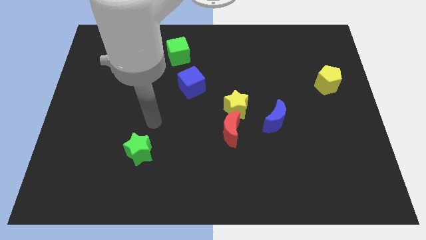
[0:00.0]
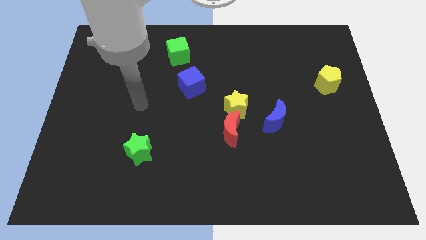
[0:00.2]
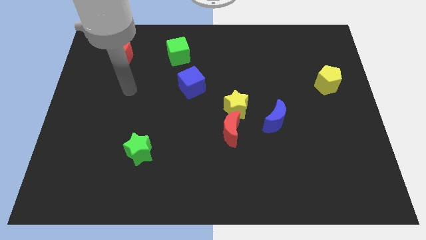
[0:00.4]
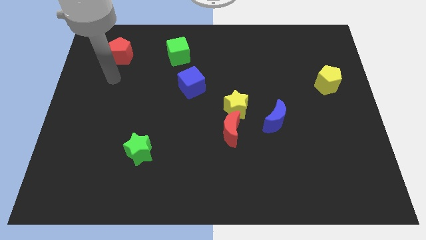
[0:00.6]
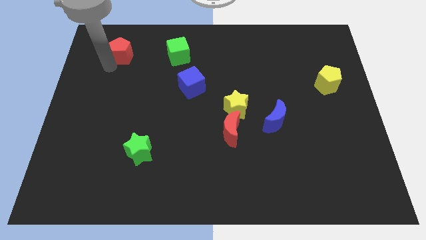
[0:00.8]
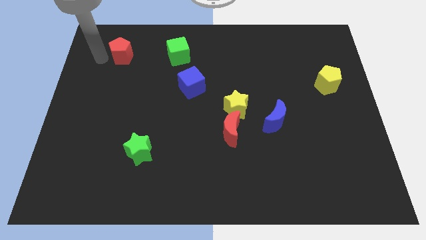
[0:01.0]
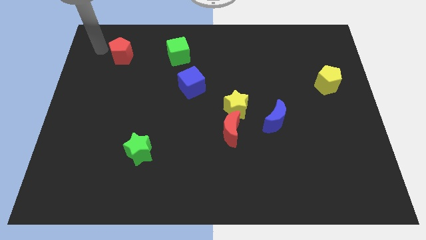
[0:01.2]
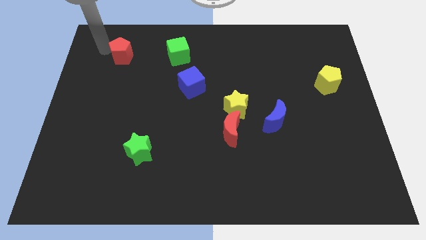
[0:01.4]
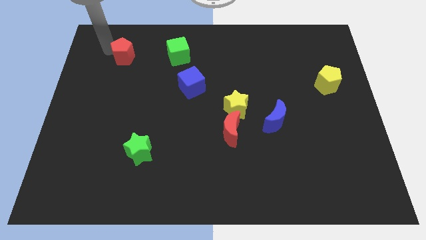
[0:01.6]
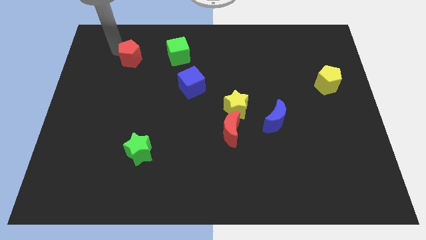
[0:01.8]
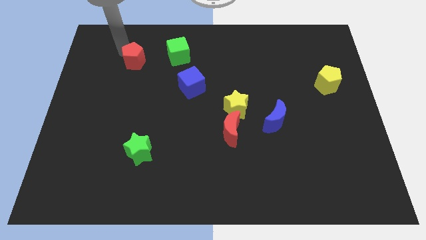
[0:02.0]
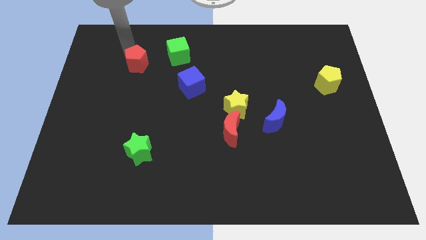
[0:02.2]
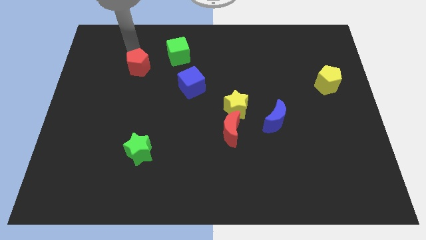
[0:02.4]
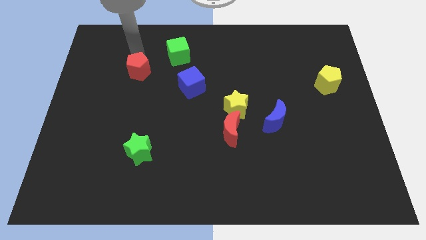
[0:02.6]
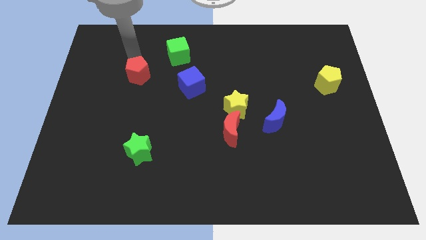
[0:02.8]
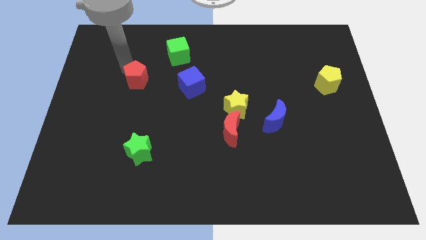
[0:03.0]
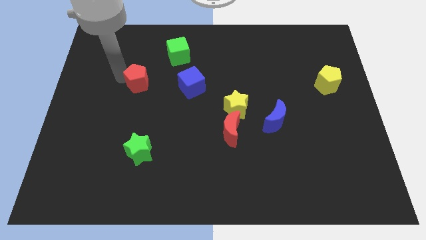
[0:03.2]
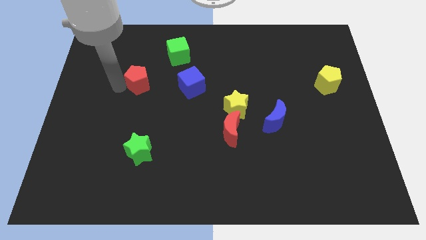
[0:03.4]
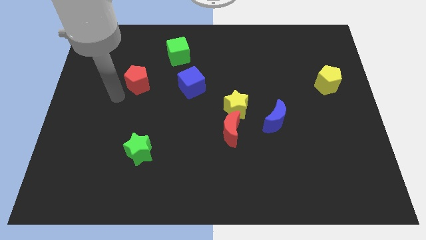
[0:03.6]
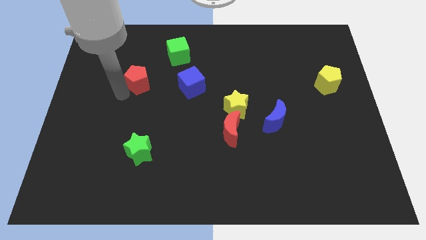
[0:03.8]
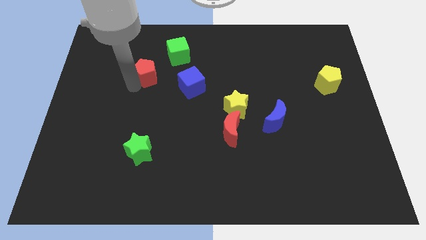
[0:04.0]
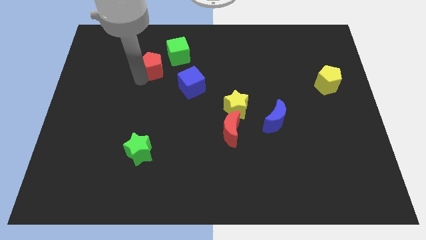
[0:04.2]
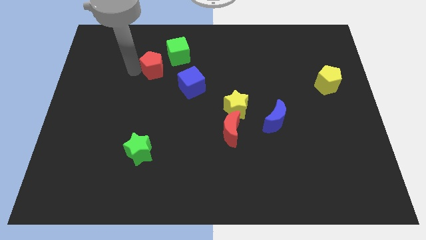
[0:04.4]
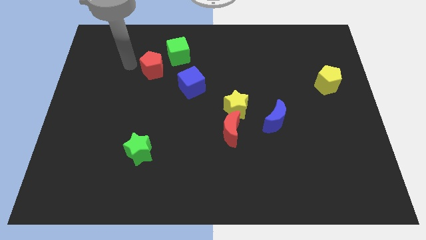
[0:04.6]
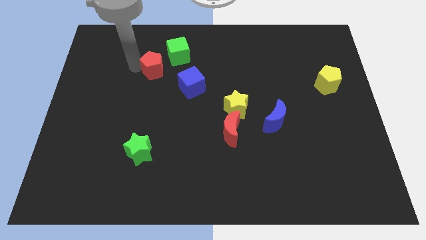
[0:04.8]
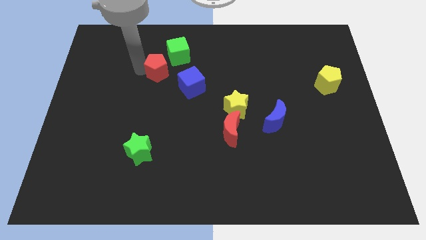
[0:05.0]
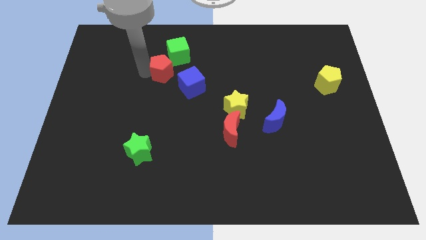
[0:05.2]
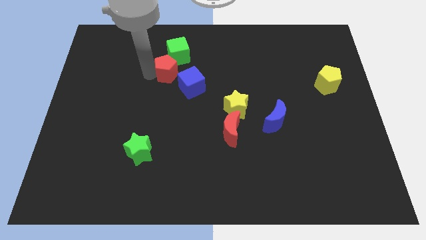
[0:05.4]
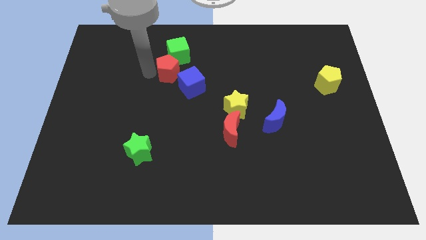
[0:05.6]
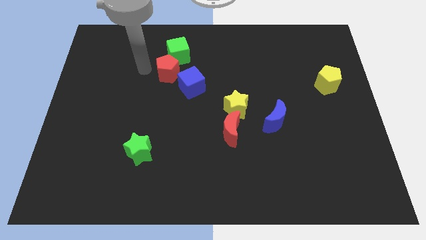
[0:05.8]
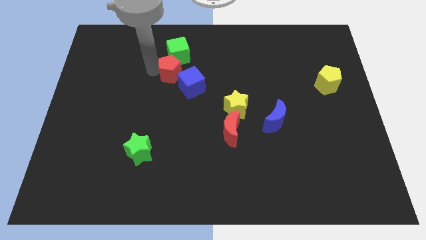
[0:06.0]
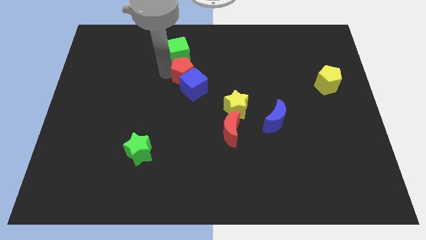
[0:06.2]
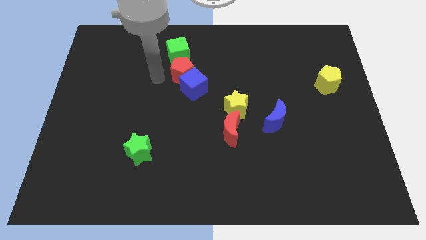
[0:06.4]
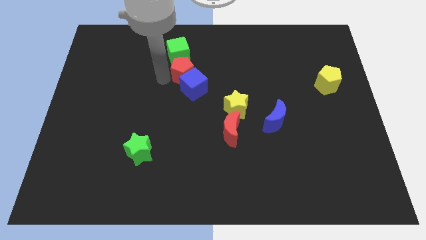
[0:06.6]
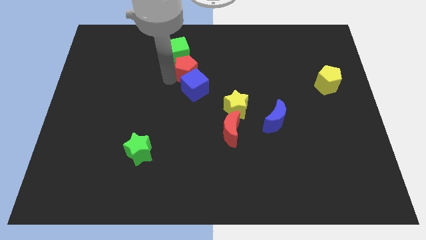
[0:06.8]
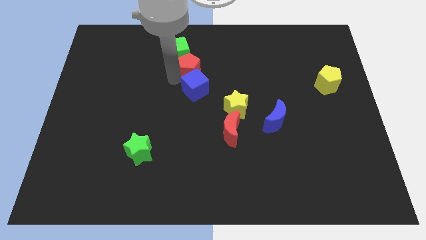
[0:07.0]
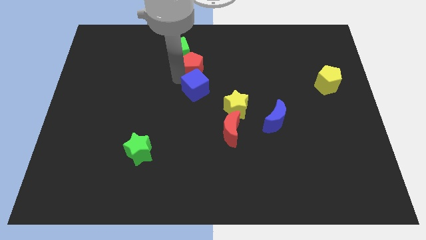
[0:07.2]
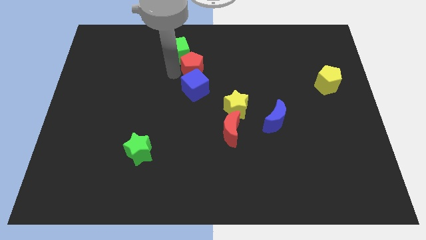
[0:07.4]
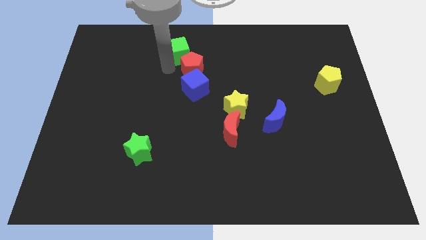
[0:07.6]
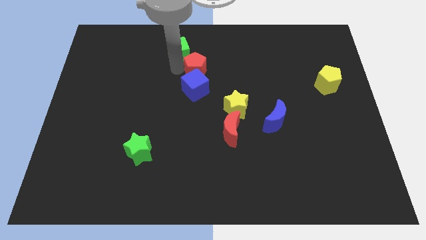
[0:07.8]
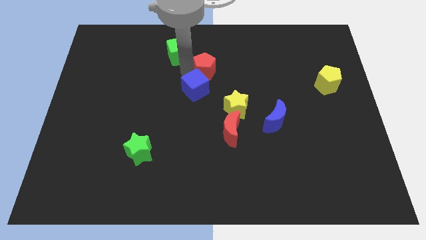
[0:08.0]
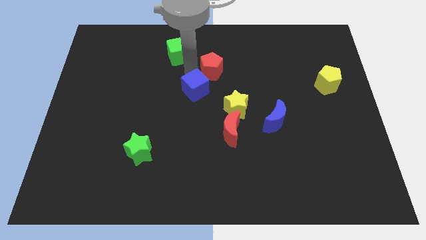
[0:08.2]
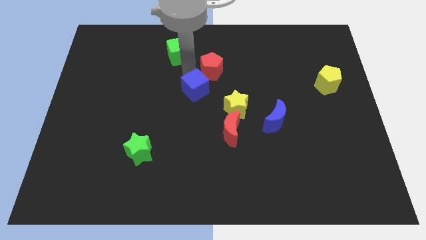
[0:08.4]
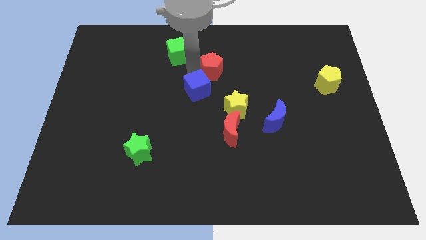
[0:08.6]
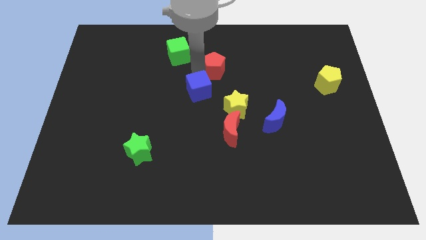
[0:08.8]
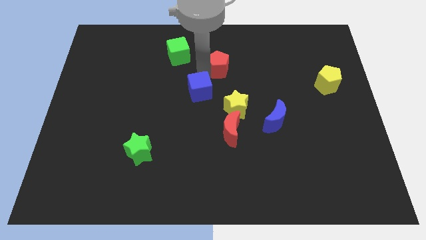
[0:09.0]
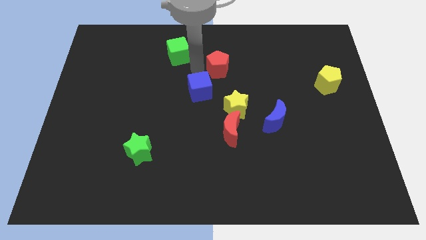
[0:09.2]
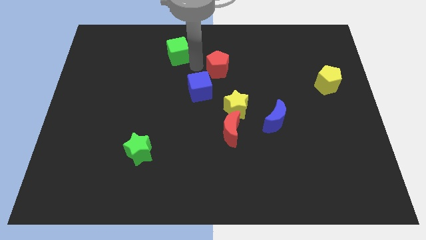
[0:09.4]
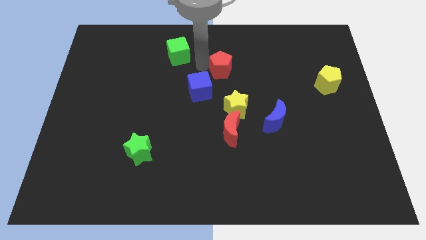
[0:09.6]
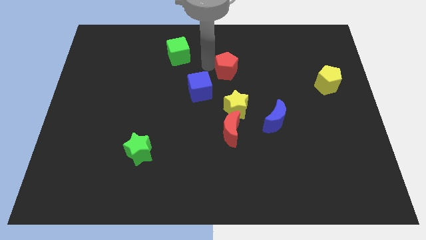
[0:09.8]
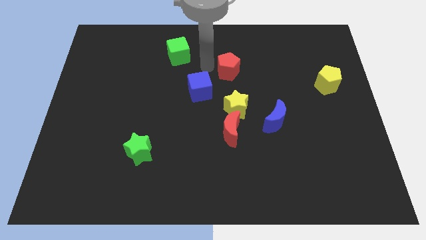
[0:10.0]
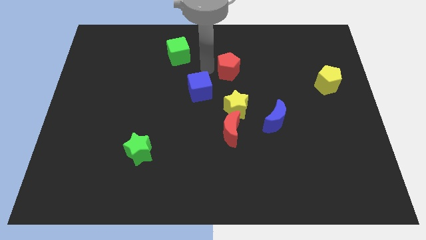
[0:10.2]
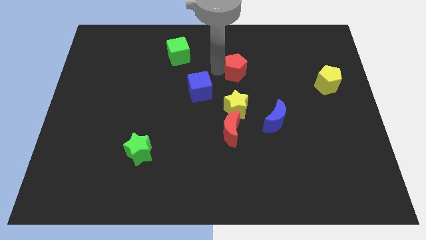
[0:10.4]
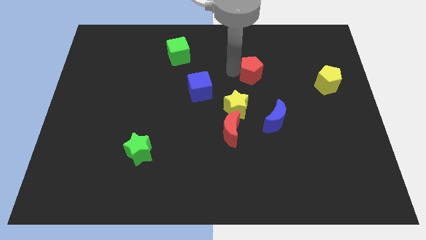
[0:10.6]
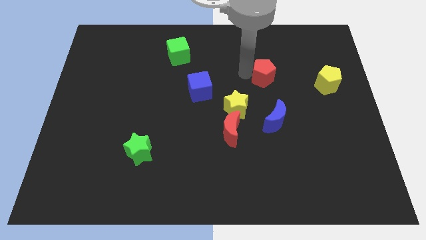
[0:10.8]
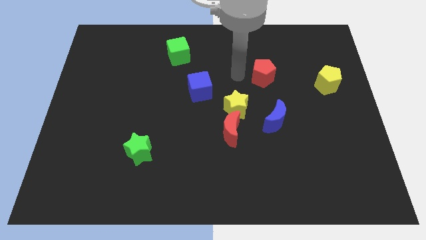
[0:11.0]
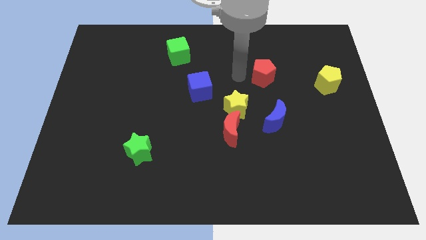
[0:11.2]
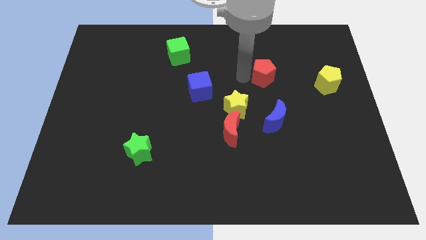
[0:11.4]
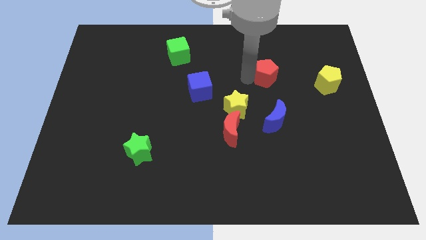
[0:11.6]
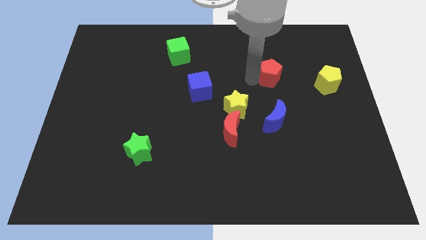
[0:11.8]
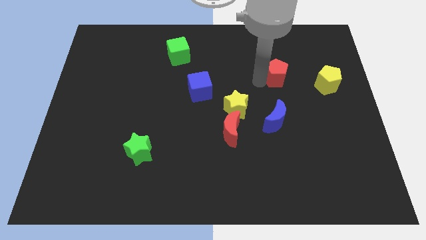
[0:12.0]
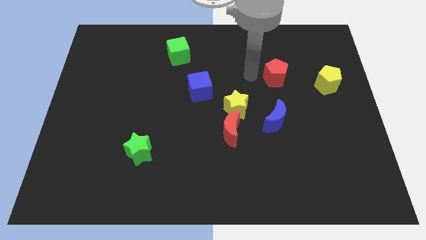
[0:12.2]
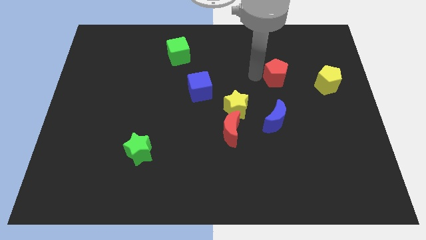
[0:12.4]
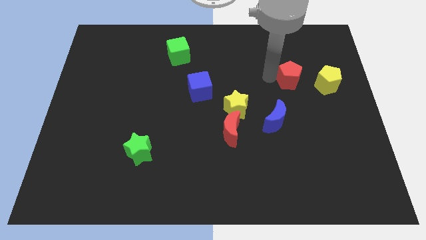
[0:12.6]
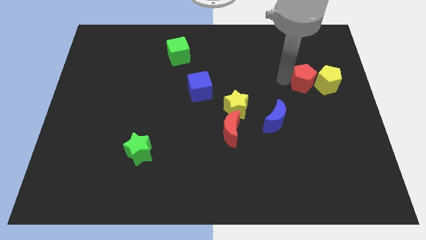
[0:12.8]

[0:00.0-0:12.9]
slide the red pentagon close to the yellow pentagon
